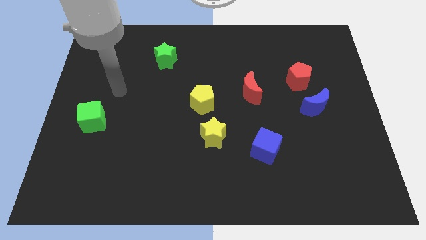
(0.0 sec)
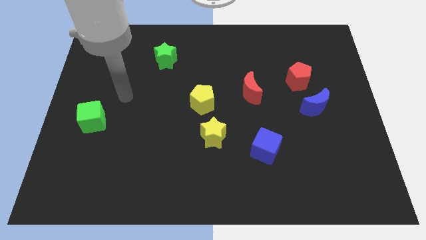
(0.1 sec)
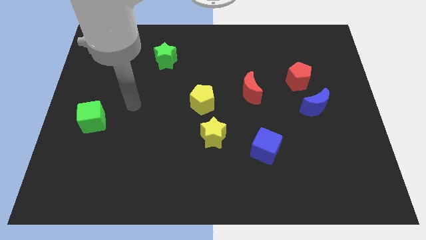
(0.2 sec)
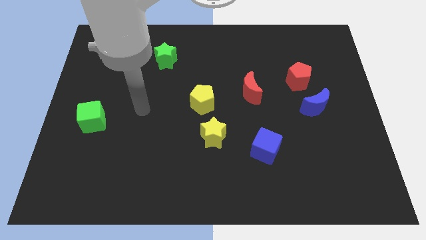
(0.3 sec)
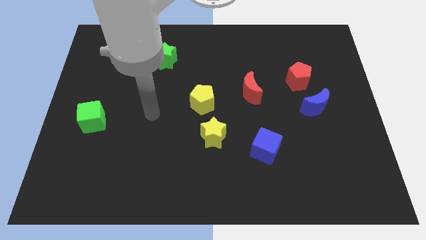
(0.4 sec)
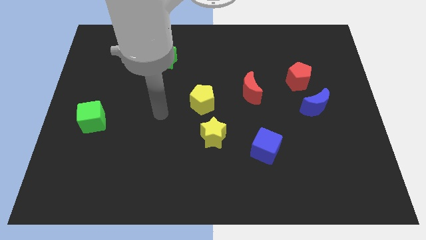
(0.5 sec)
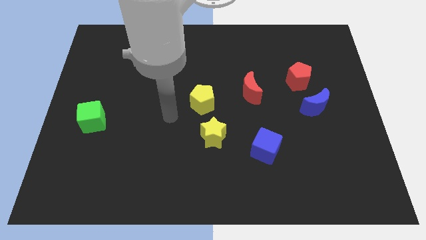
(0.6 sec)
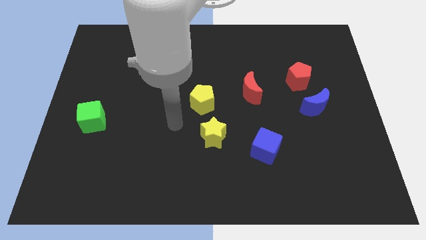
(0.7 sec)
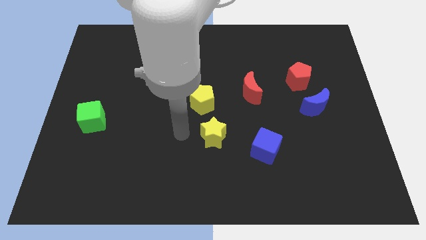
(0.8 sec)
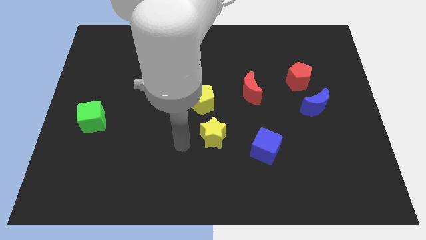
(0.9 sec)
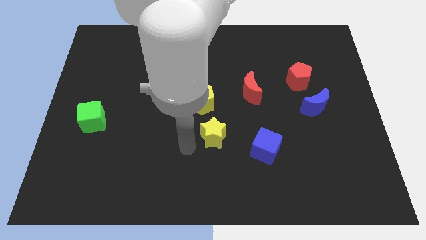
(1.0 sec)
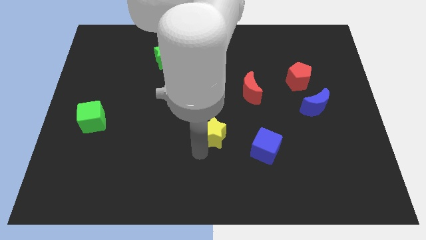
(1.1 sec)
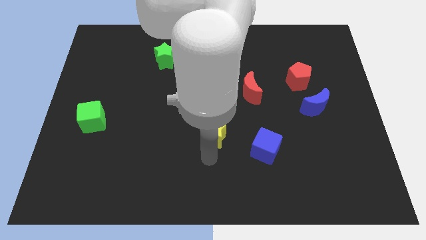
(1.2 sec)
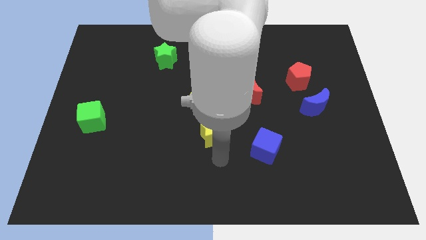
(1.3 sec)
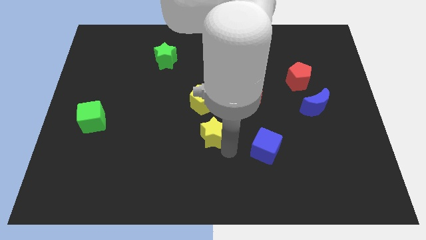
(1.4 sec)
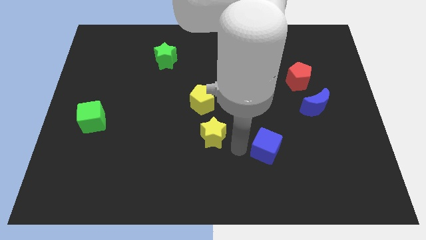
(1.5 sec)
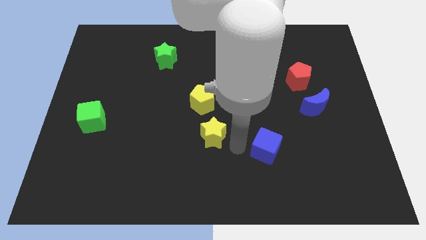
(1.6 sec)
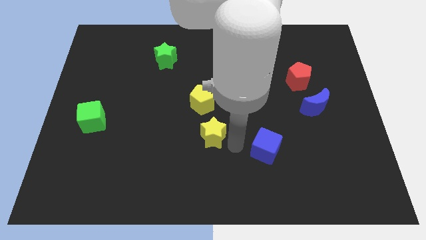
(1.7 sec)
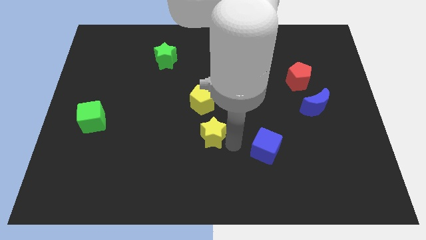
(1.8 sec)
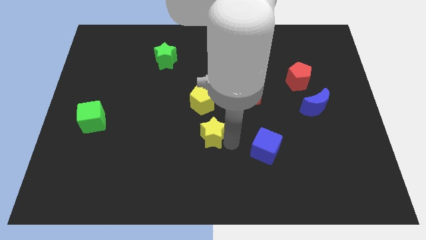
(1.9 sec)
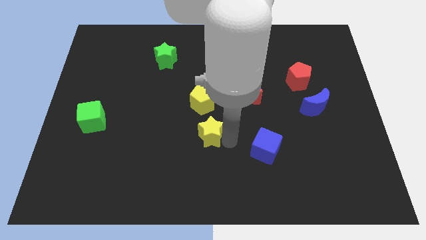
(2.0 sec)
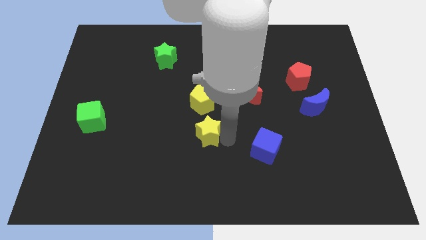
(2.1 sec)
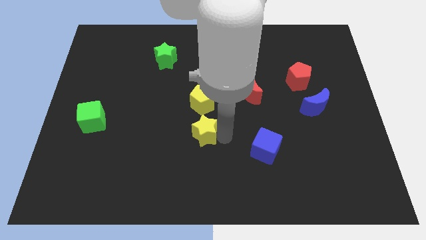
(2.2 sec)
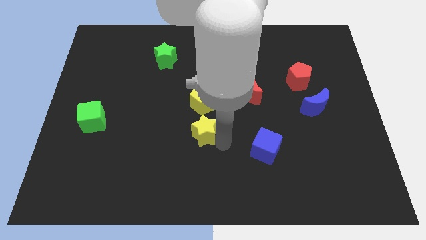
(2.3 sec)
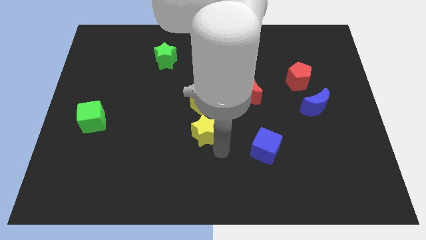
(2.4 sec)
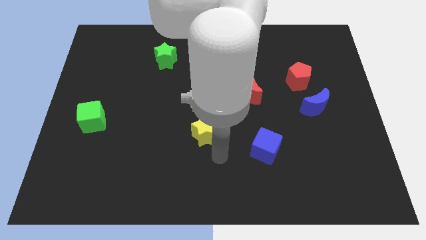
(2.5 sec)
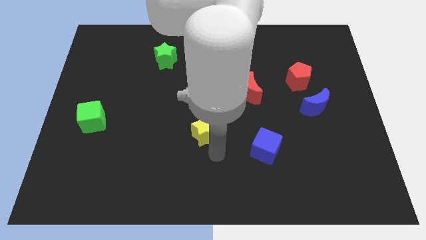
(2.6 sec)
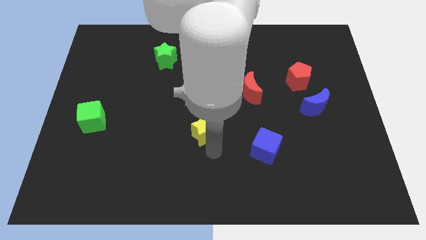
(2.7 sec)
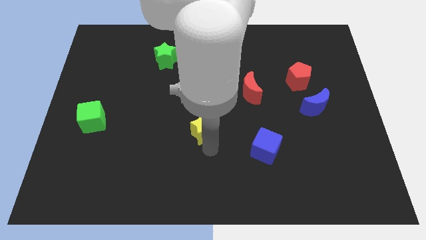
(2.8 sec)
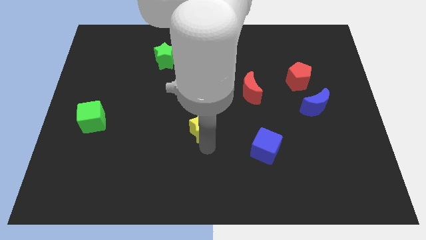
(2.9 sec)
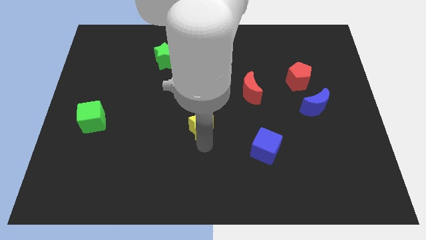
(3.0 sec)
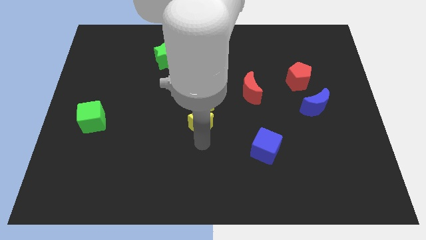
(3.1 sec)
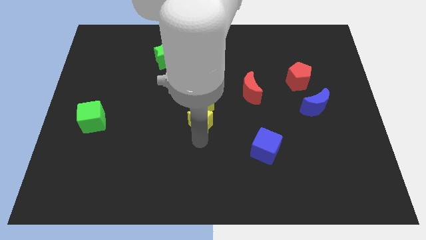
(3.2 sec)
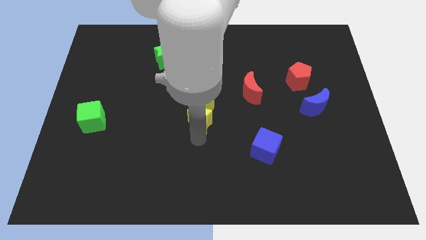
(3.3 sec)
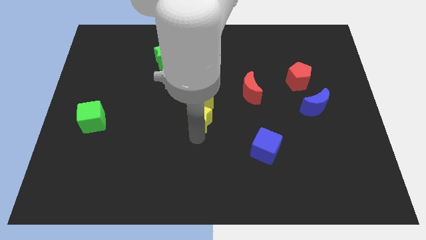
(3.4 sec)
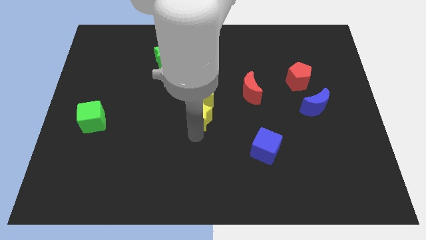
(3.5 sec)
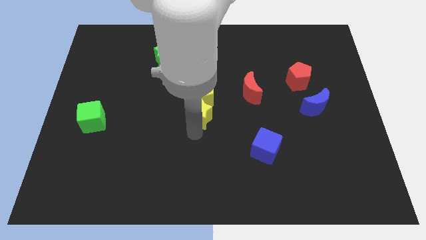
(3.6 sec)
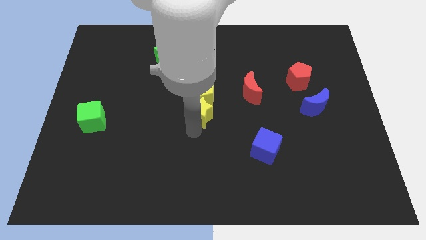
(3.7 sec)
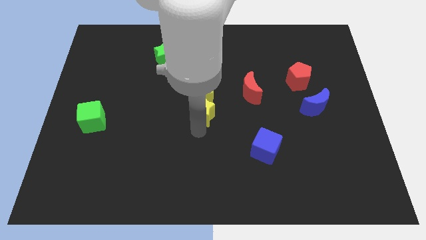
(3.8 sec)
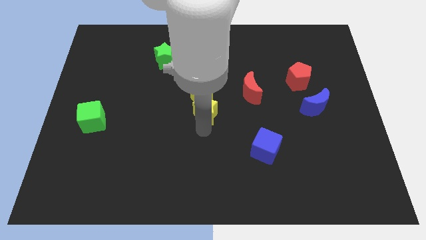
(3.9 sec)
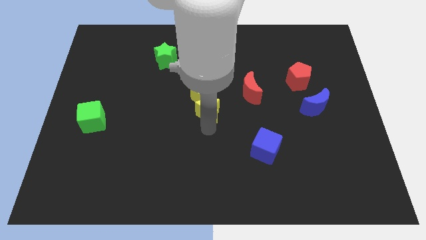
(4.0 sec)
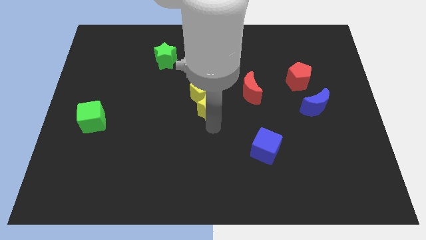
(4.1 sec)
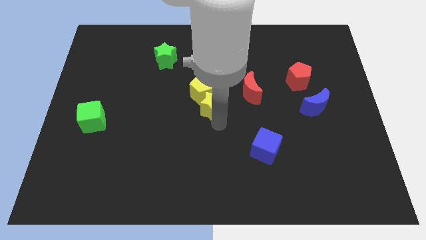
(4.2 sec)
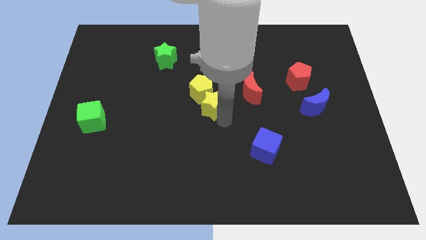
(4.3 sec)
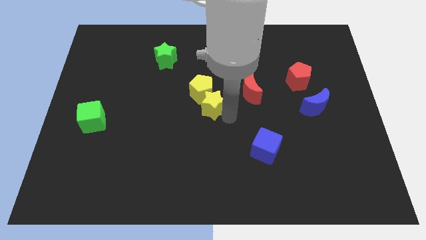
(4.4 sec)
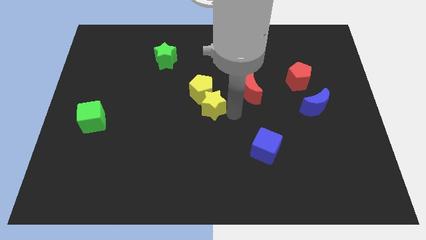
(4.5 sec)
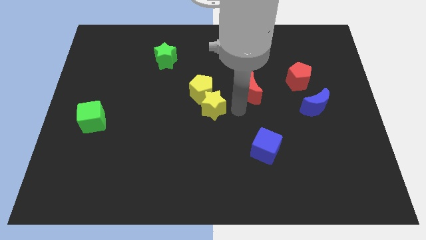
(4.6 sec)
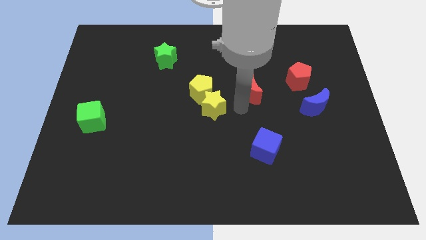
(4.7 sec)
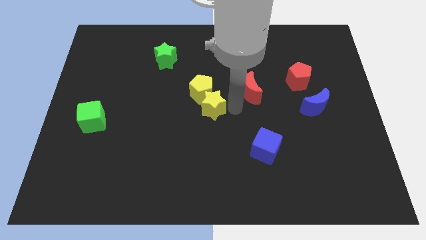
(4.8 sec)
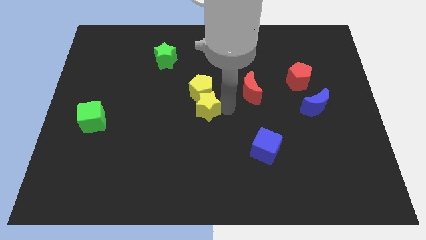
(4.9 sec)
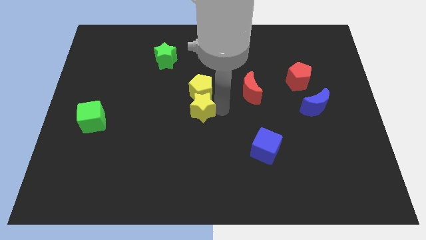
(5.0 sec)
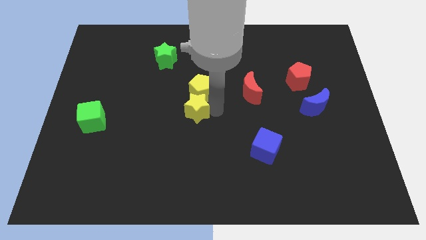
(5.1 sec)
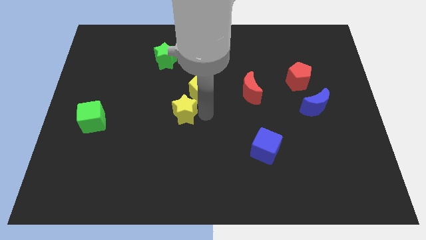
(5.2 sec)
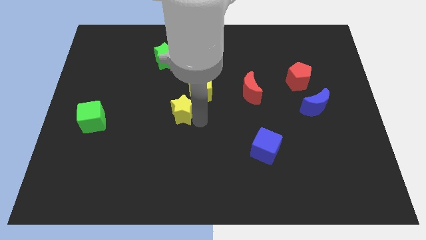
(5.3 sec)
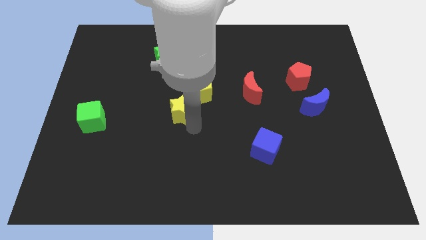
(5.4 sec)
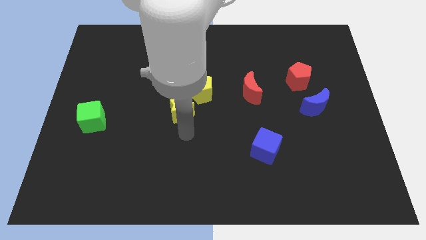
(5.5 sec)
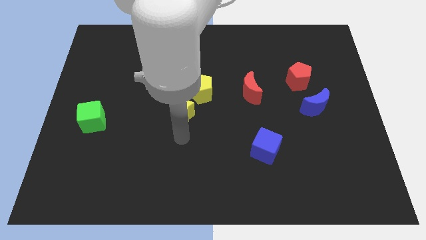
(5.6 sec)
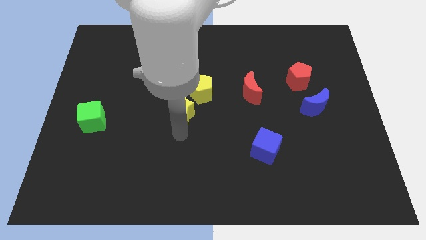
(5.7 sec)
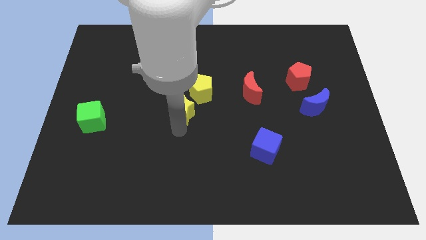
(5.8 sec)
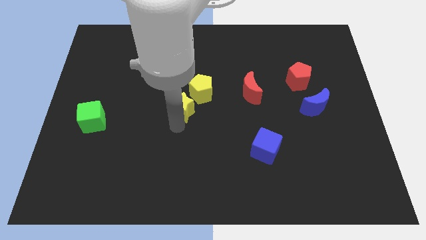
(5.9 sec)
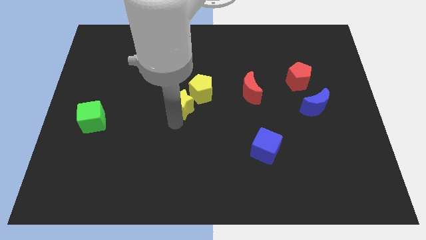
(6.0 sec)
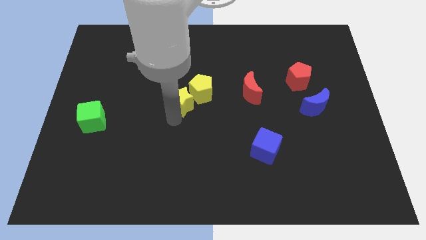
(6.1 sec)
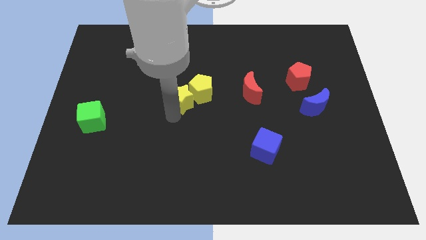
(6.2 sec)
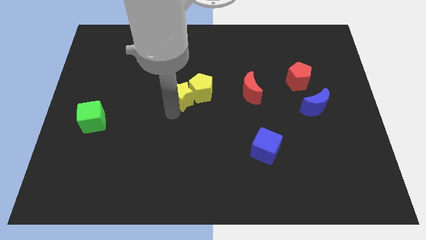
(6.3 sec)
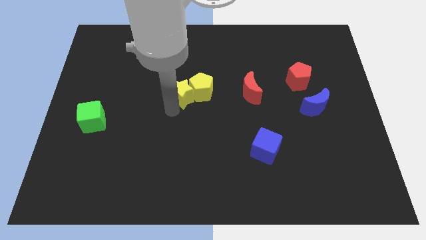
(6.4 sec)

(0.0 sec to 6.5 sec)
put the yellow star to the top left of the yellow pentagon

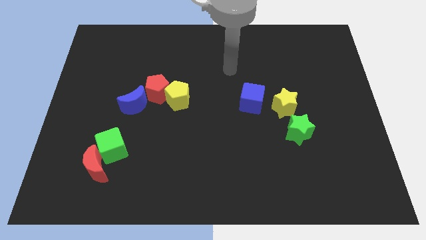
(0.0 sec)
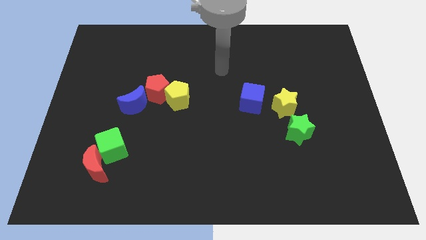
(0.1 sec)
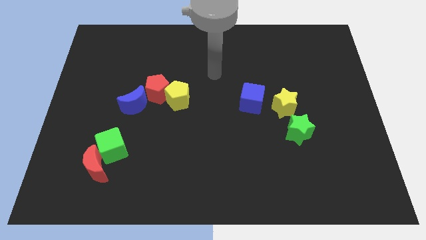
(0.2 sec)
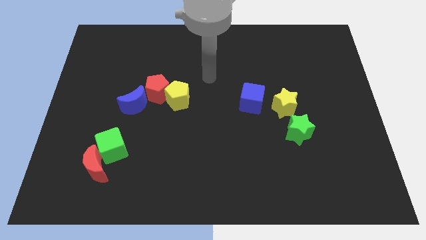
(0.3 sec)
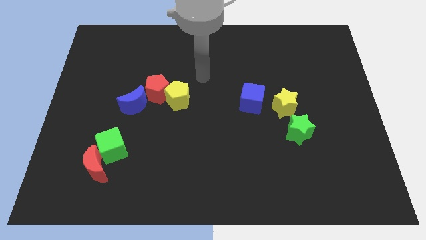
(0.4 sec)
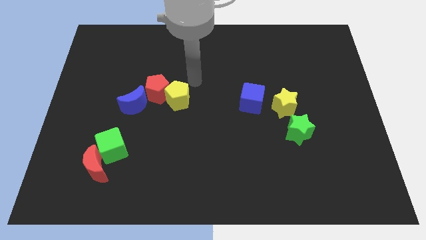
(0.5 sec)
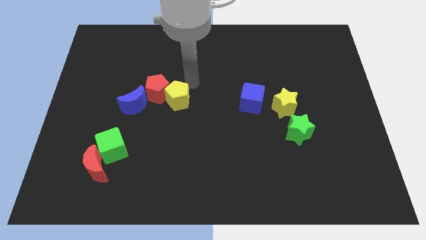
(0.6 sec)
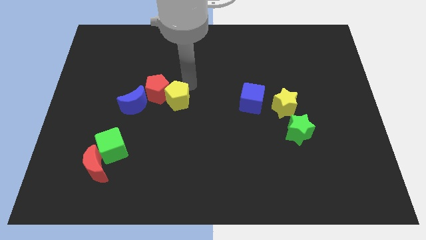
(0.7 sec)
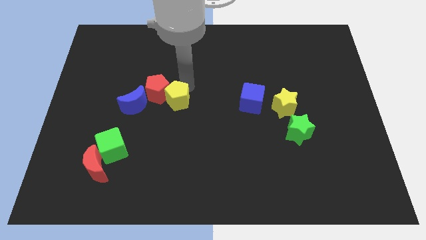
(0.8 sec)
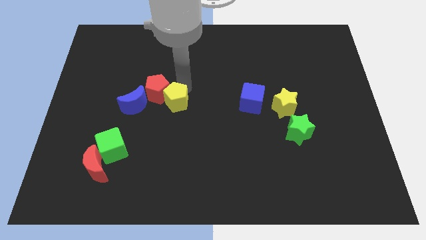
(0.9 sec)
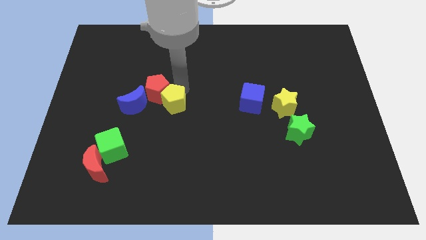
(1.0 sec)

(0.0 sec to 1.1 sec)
put the yellow pentagon to the bottom side of the red pentagon

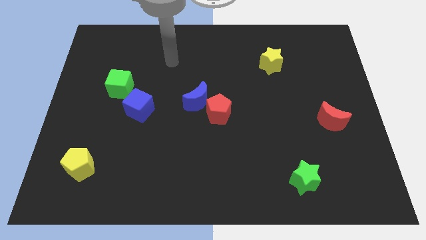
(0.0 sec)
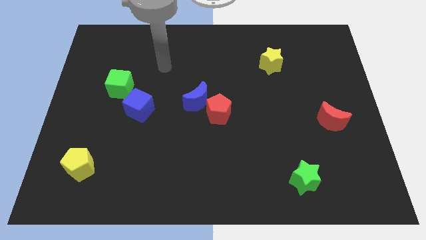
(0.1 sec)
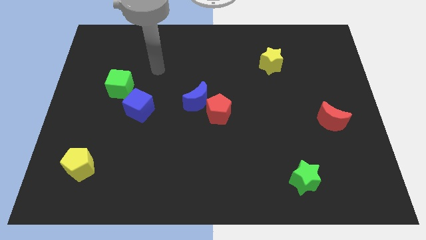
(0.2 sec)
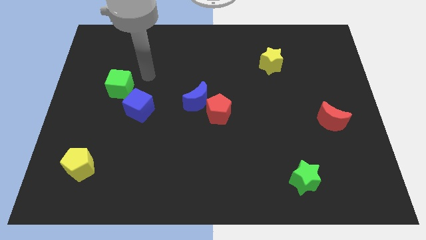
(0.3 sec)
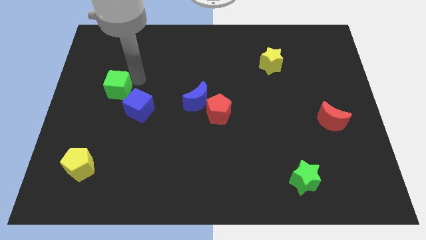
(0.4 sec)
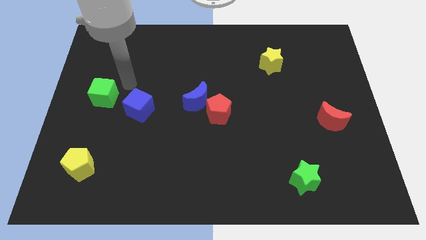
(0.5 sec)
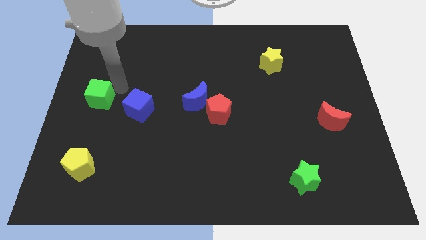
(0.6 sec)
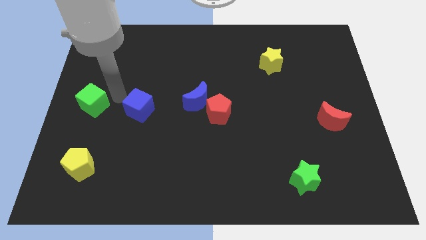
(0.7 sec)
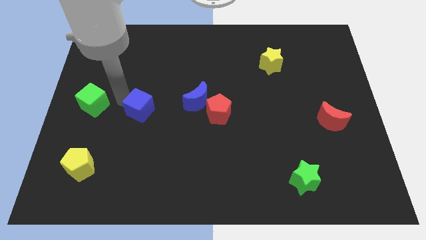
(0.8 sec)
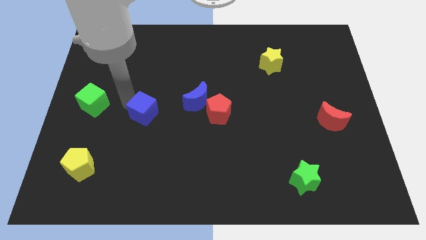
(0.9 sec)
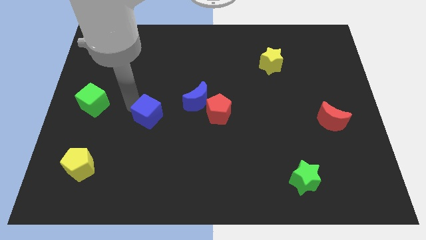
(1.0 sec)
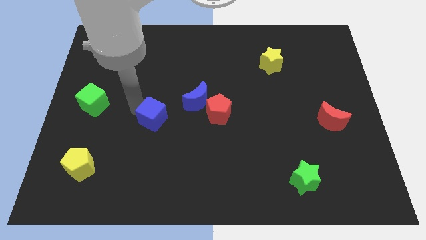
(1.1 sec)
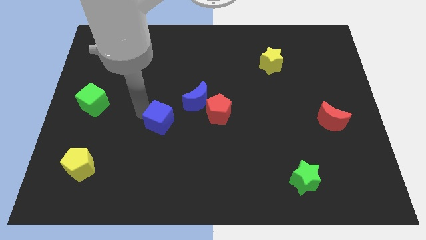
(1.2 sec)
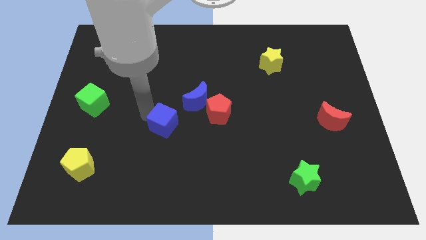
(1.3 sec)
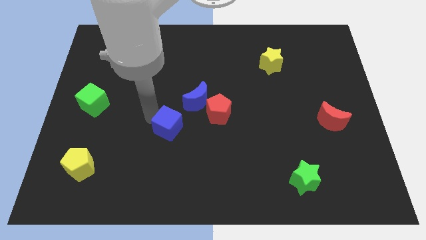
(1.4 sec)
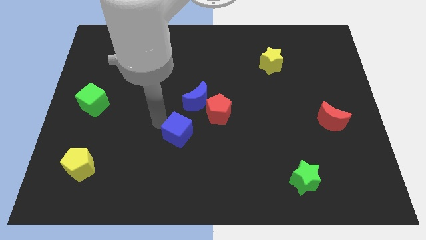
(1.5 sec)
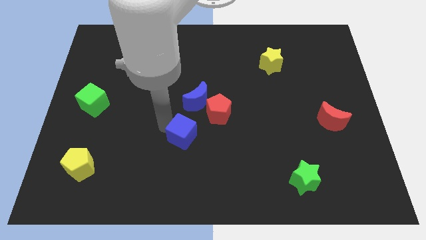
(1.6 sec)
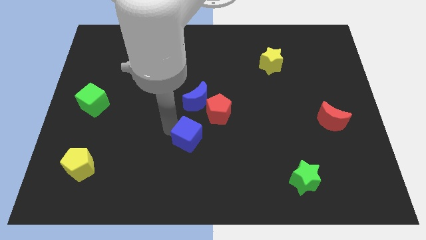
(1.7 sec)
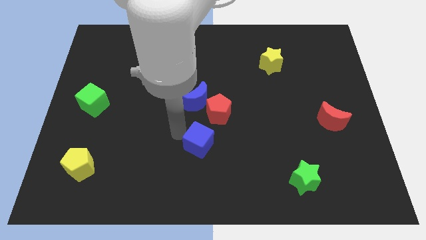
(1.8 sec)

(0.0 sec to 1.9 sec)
put the blue cube to the bottom of the red pentagon
